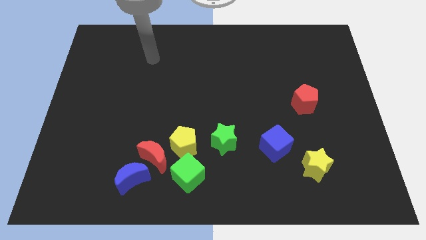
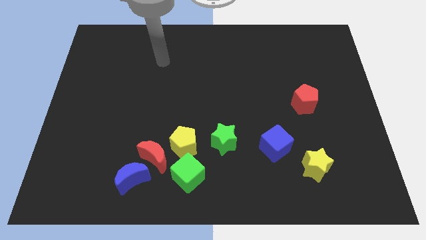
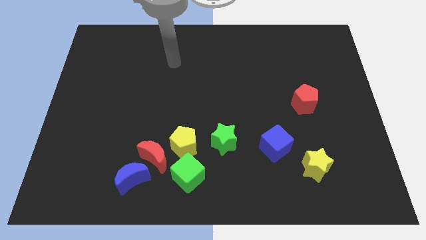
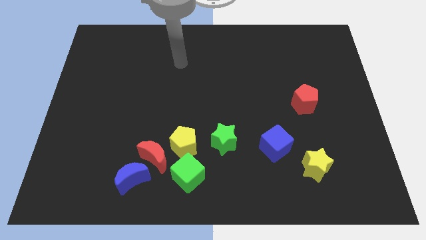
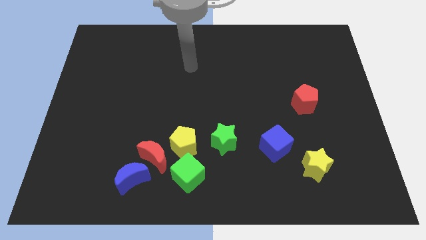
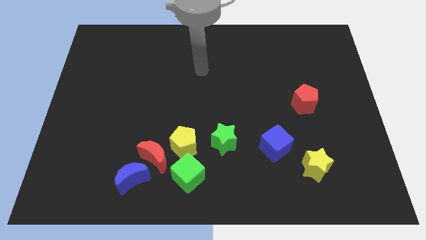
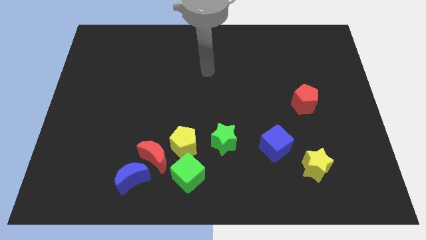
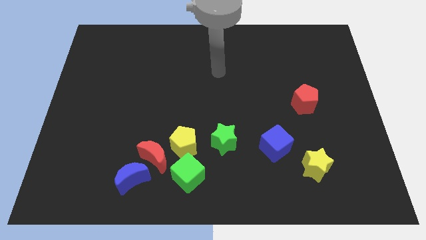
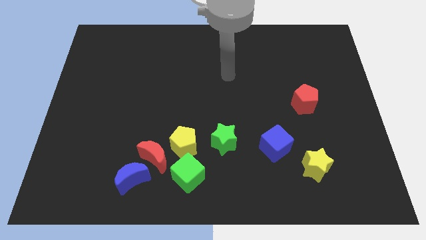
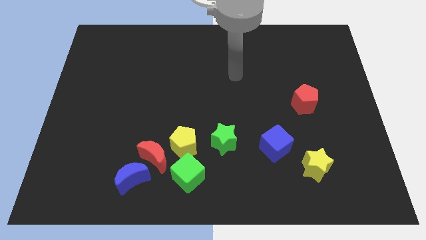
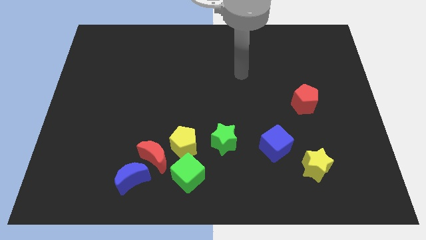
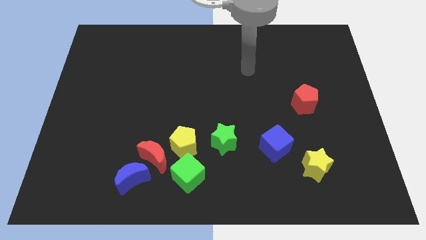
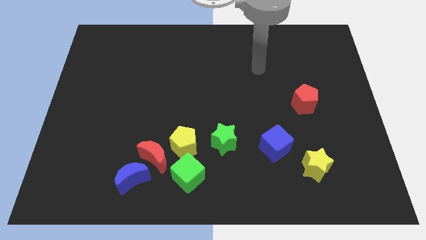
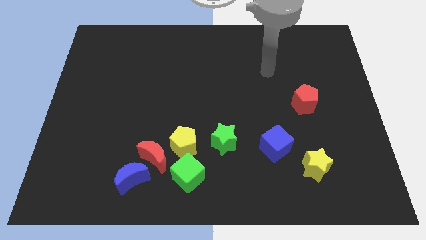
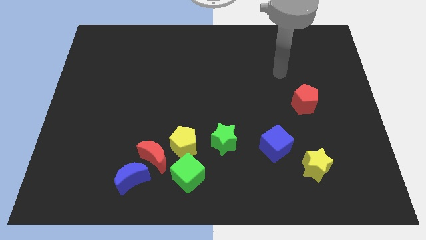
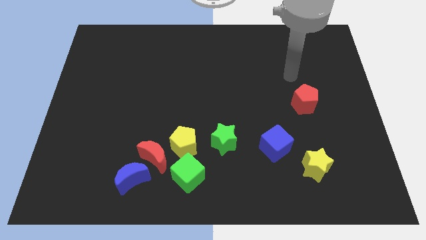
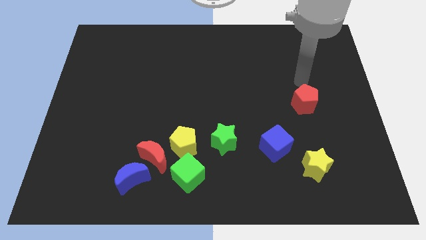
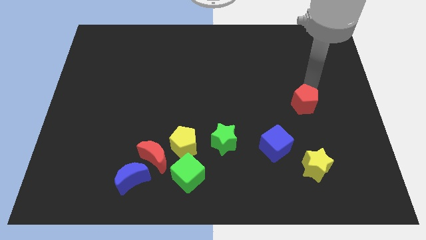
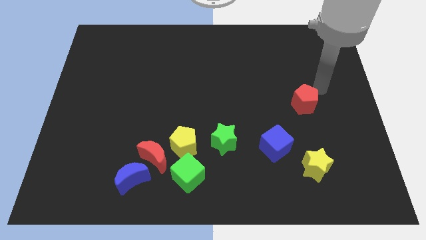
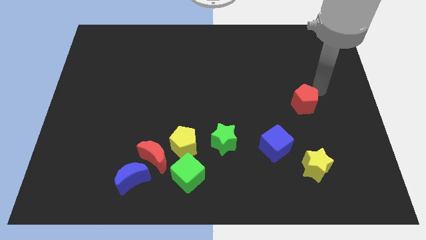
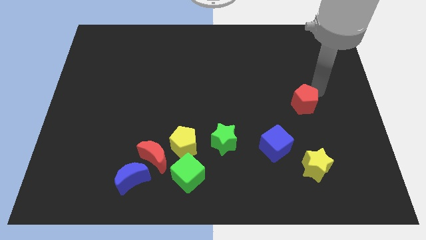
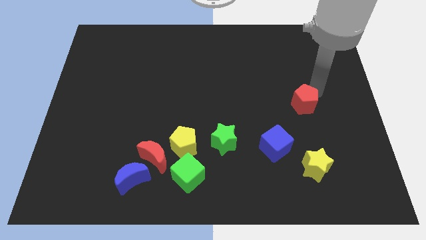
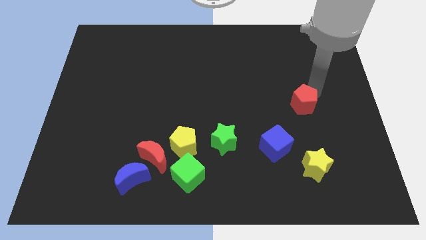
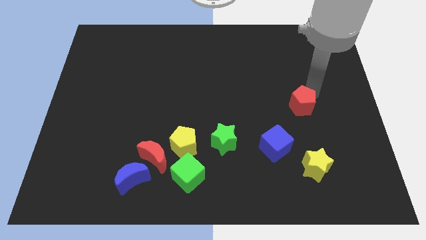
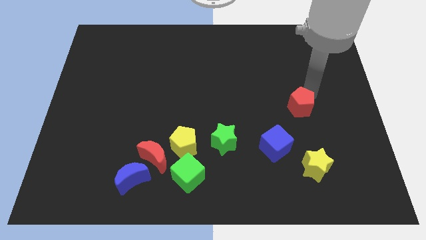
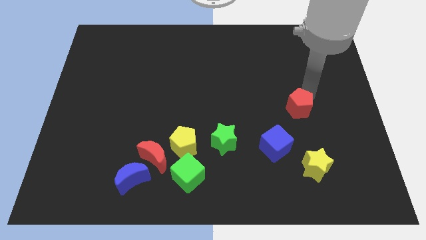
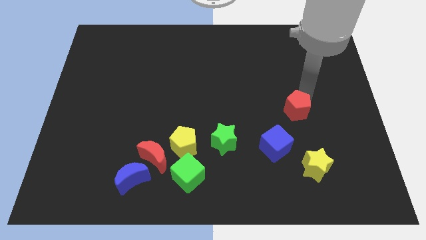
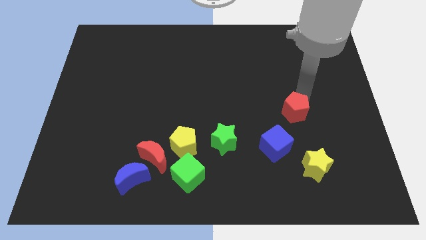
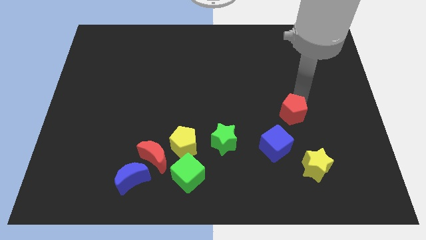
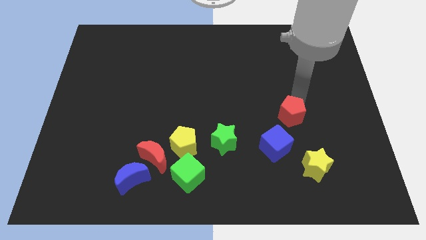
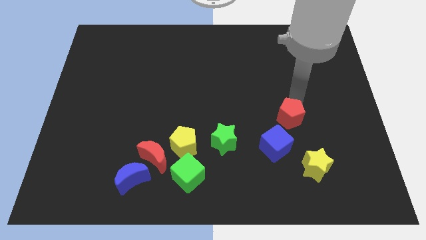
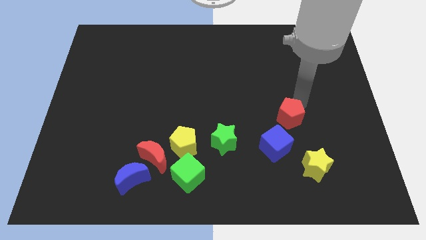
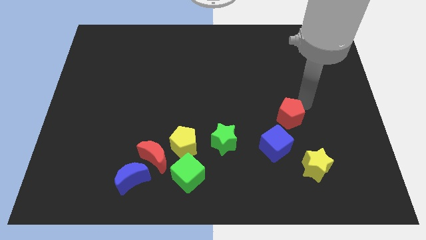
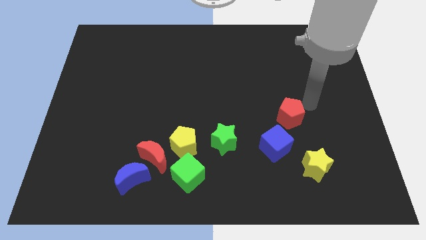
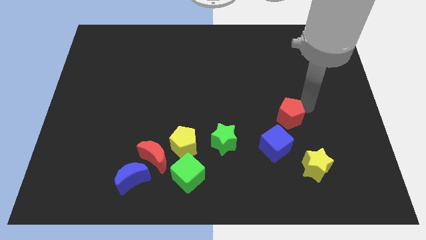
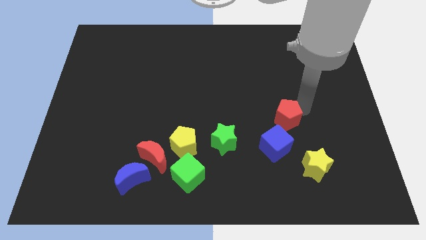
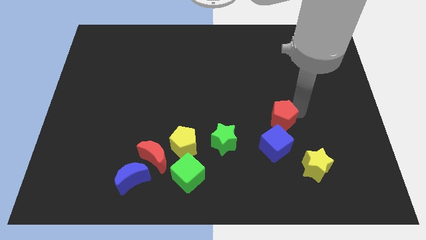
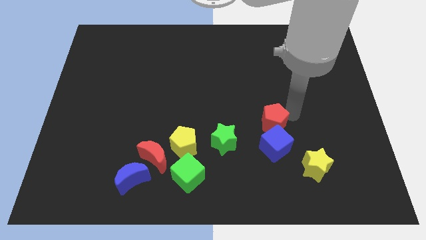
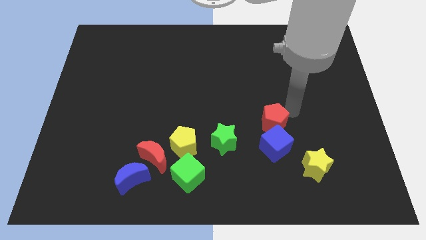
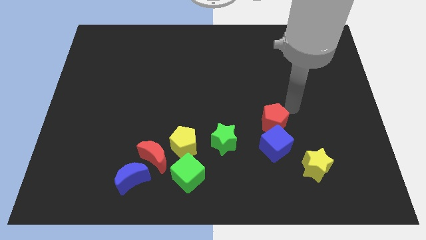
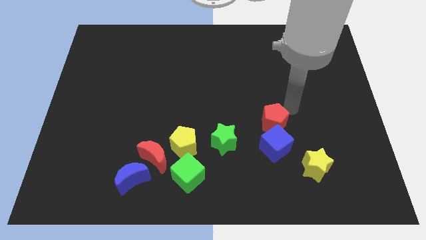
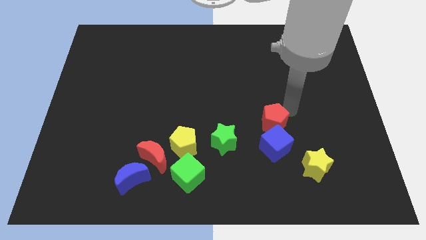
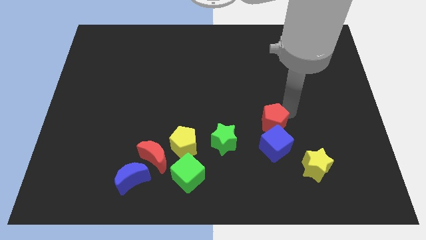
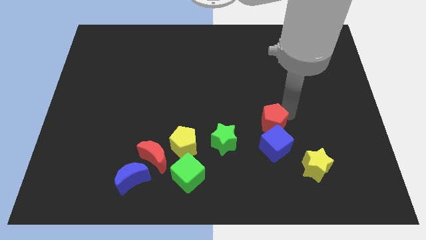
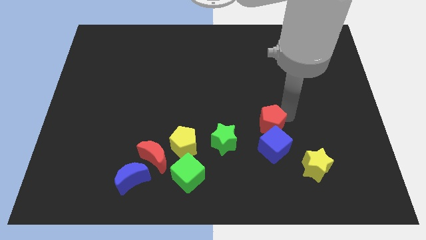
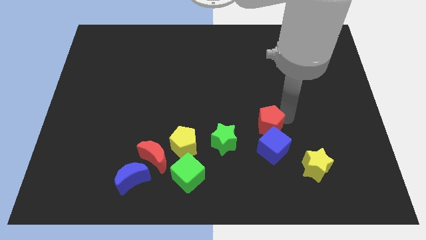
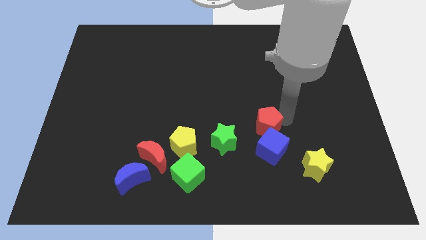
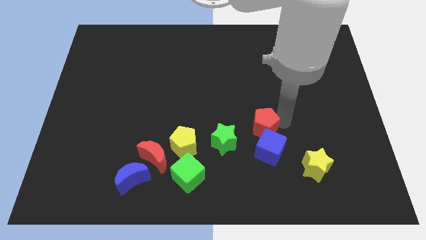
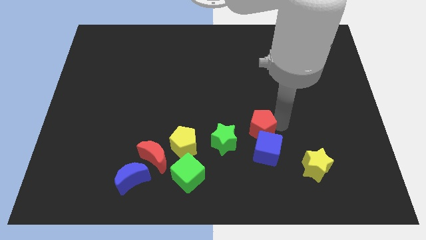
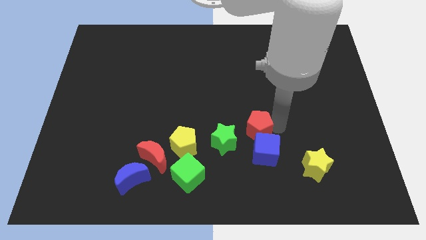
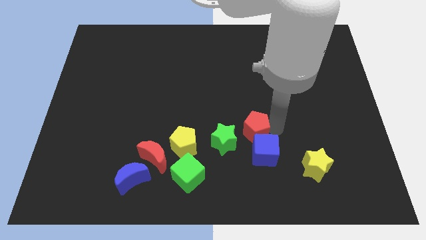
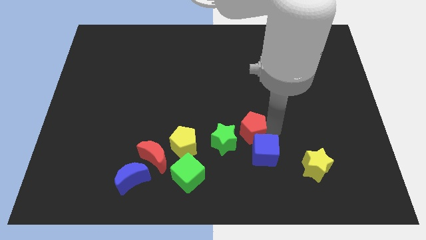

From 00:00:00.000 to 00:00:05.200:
push the red pentagon to the right of the yellow pentagon

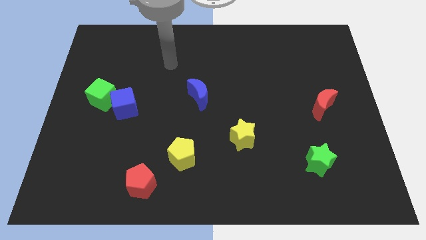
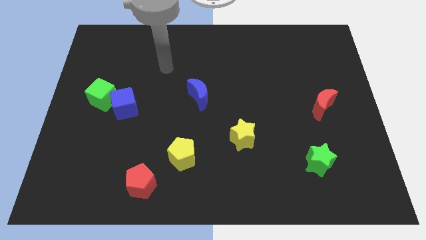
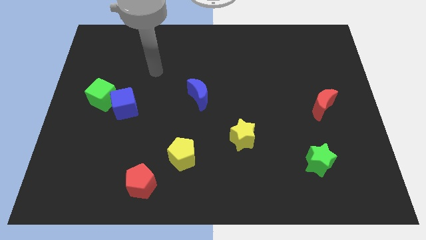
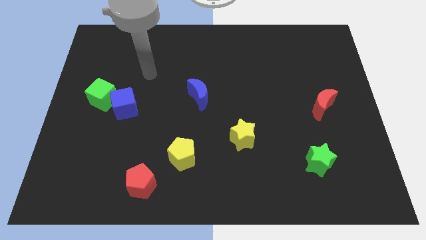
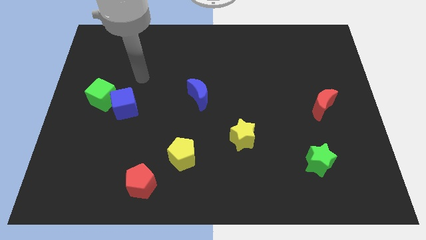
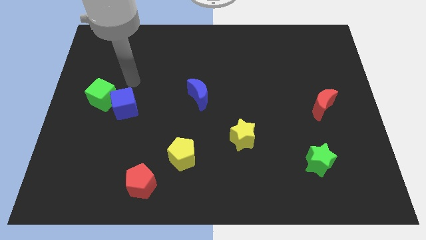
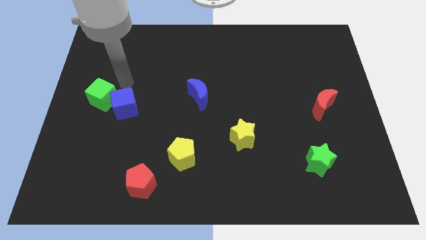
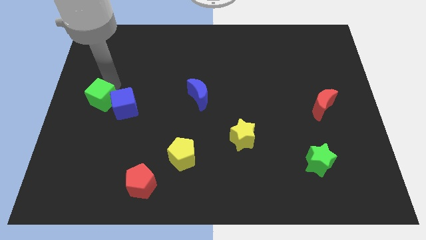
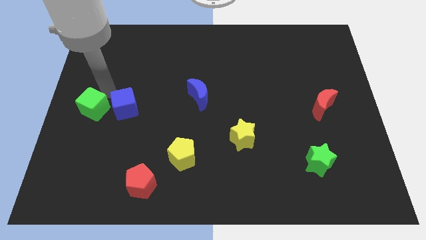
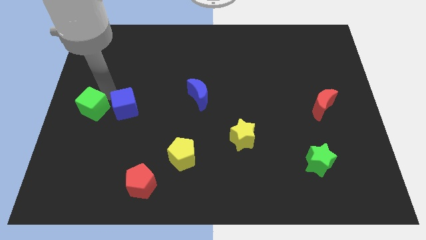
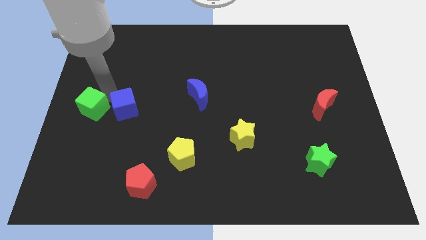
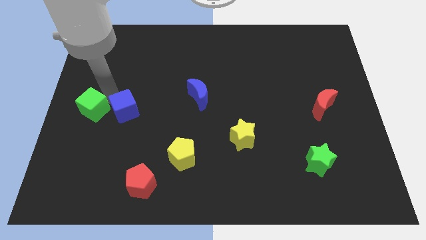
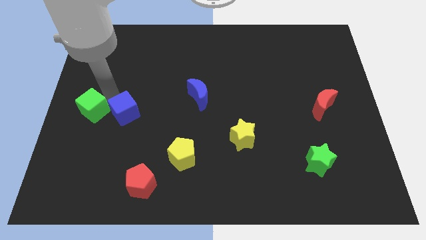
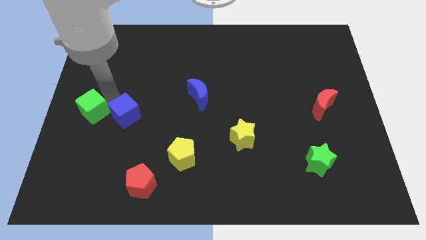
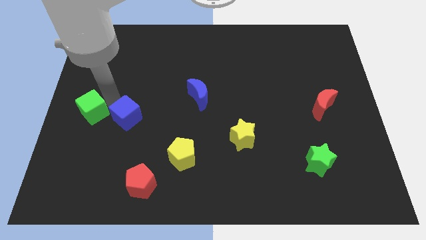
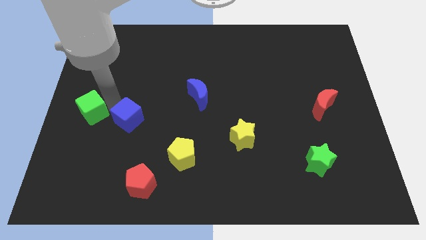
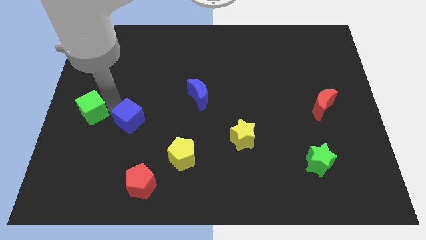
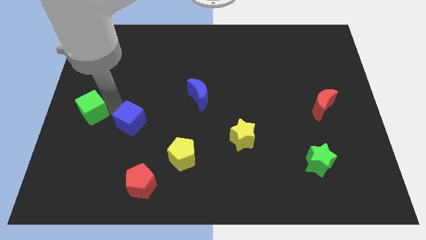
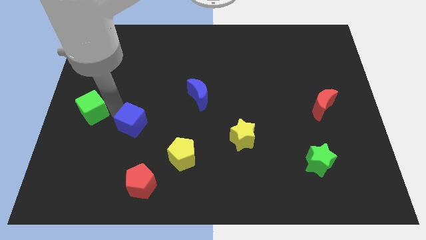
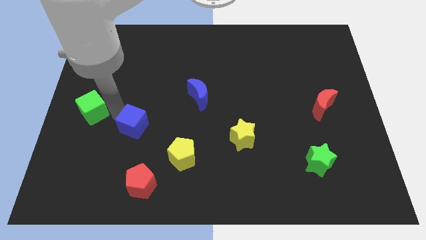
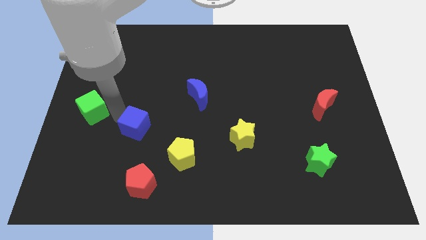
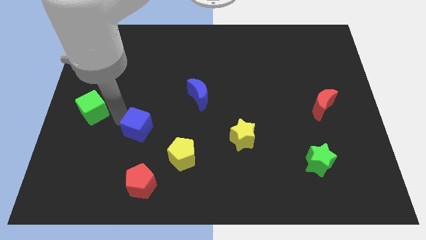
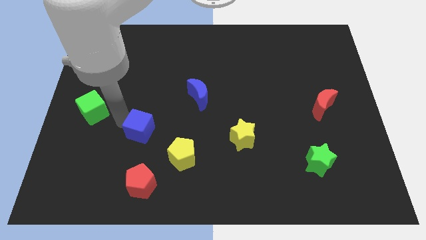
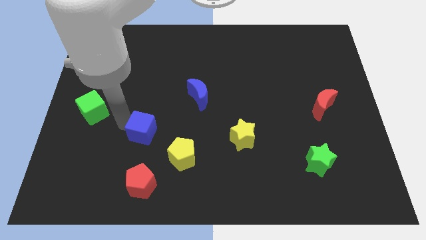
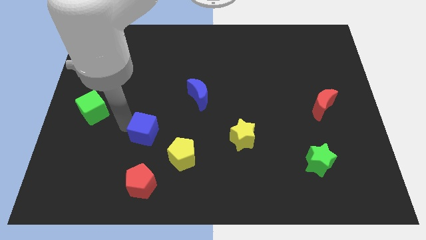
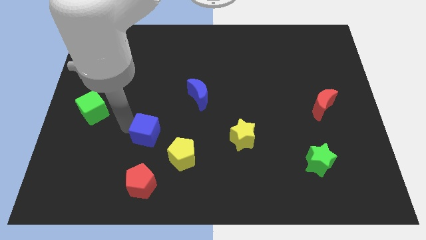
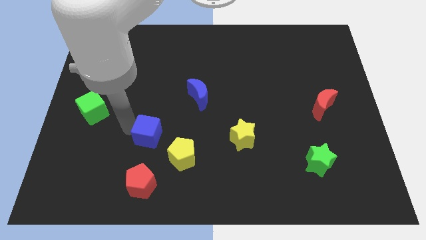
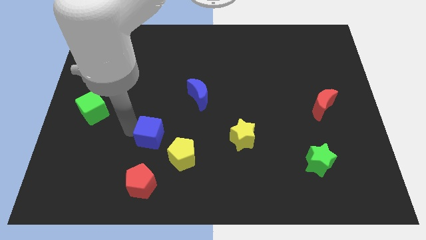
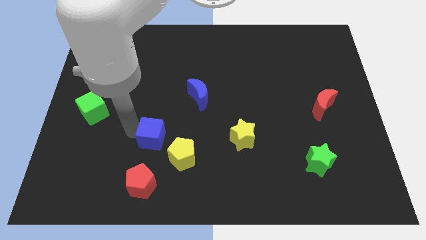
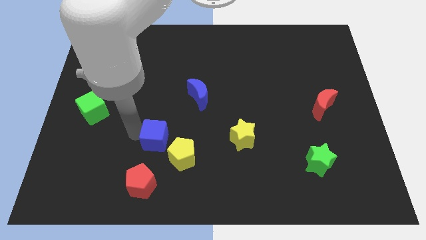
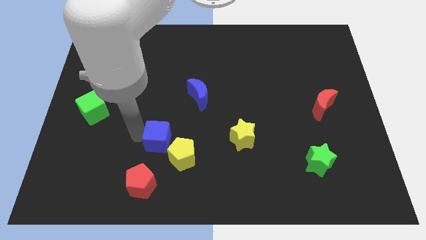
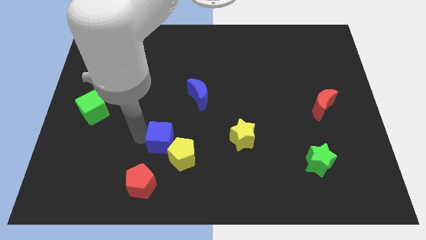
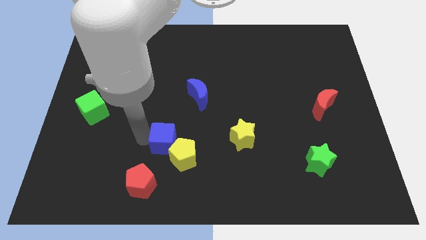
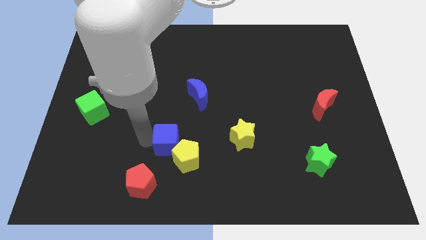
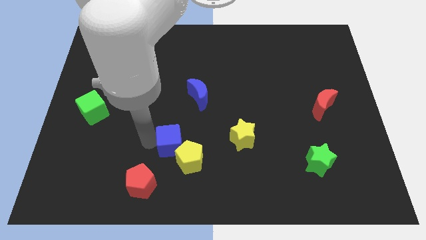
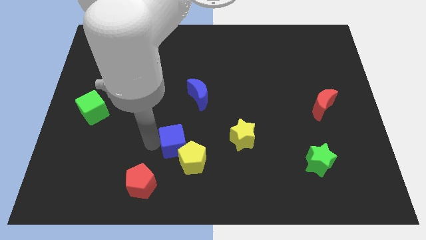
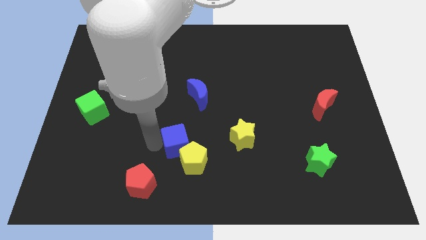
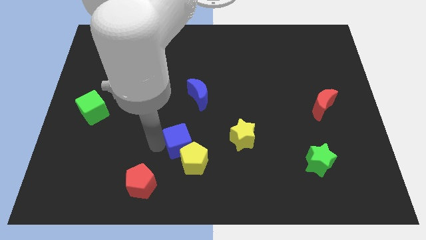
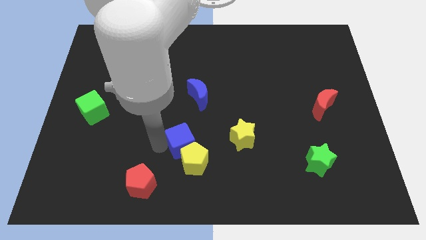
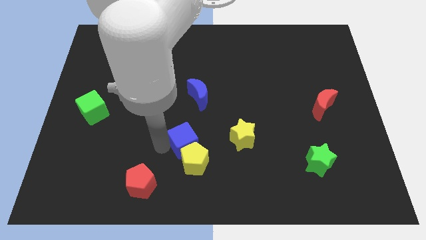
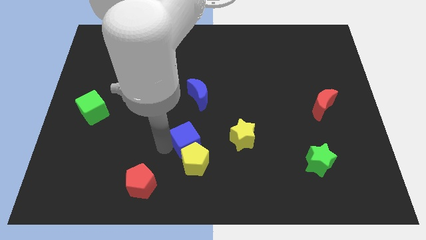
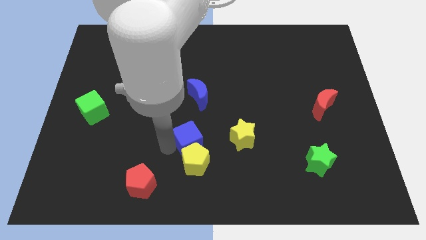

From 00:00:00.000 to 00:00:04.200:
put the blue cube diagonally up and to the right of the yellow pentagon
